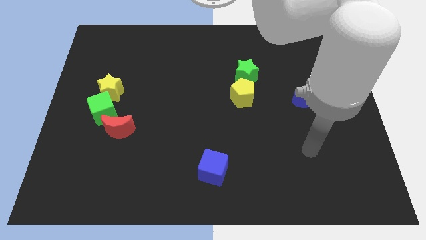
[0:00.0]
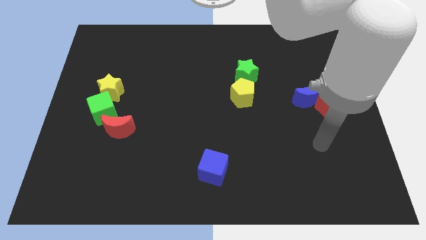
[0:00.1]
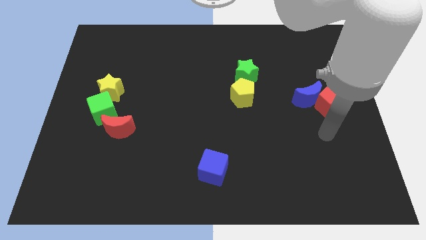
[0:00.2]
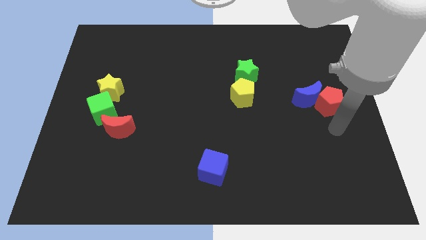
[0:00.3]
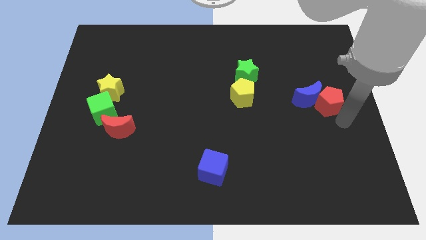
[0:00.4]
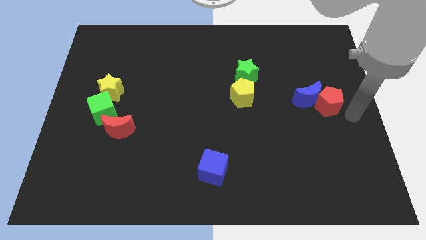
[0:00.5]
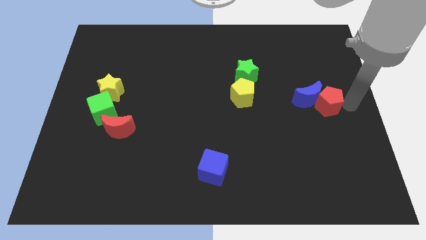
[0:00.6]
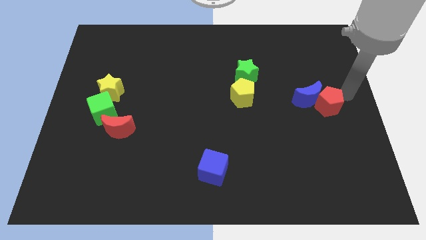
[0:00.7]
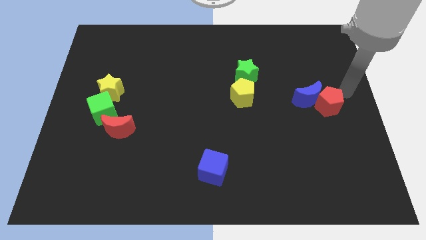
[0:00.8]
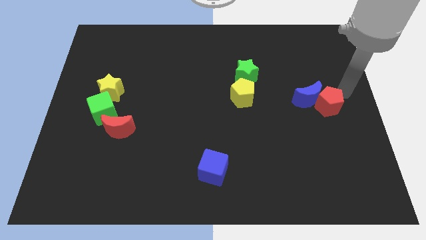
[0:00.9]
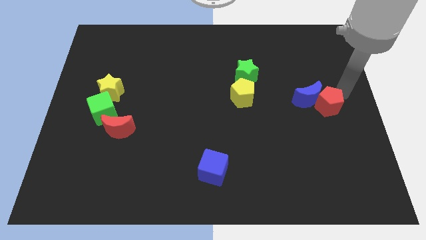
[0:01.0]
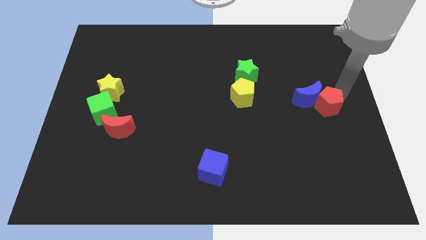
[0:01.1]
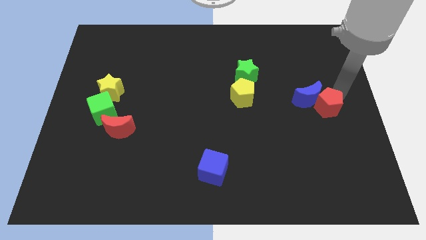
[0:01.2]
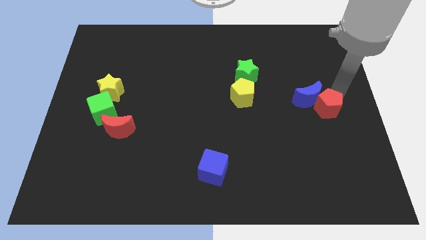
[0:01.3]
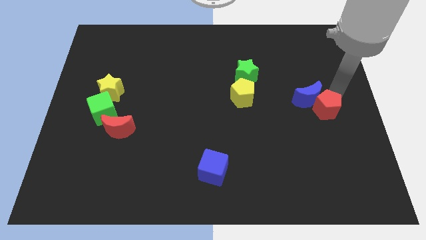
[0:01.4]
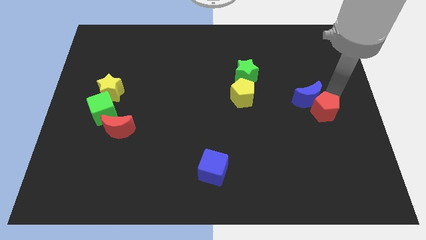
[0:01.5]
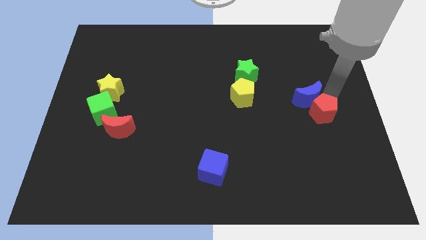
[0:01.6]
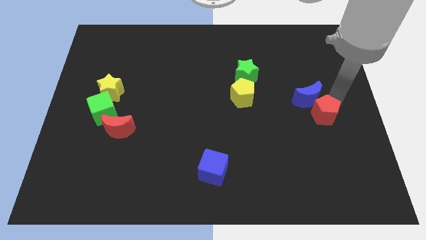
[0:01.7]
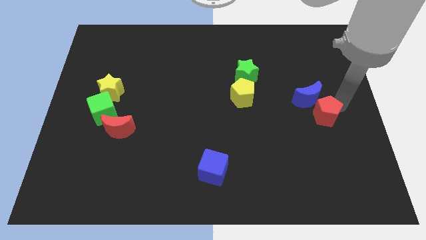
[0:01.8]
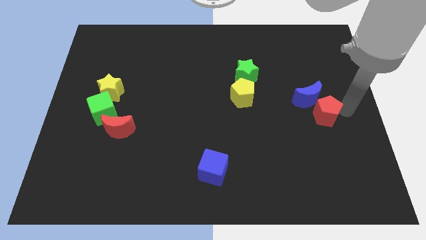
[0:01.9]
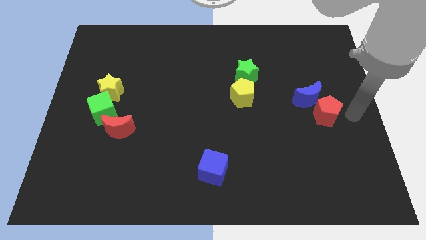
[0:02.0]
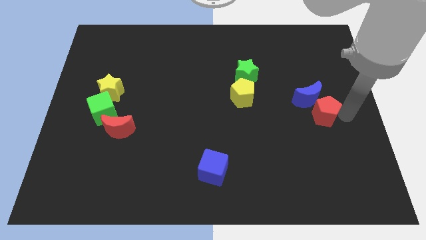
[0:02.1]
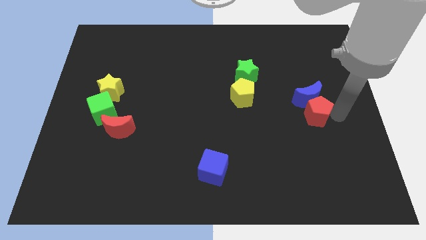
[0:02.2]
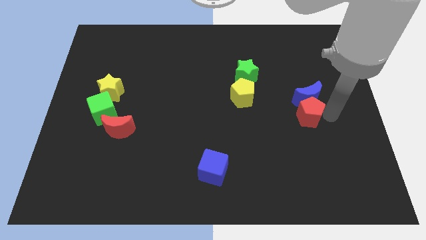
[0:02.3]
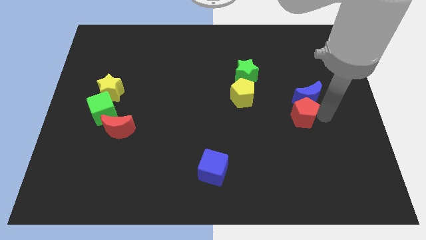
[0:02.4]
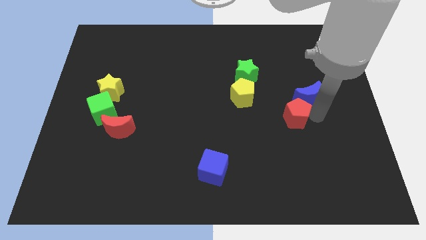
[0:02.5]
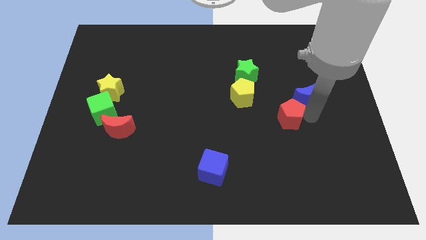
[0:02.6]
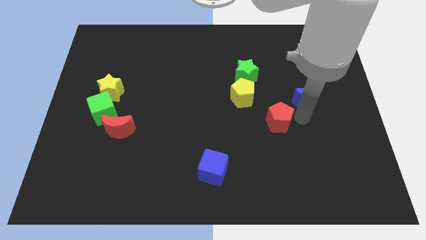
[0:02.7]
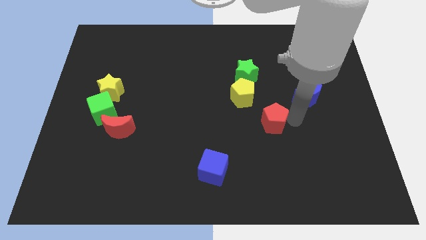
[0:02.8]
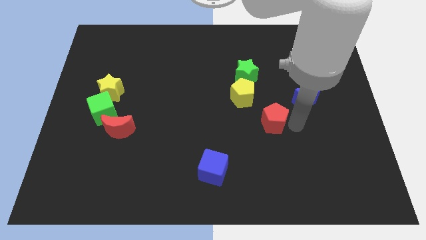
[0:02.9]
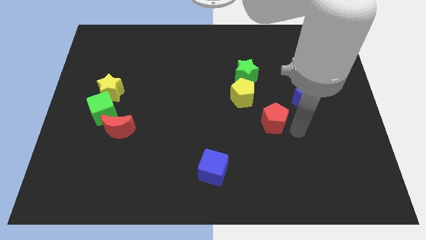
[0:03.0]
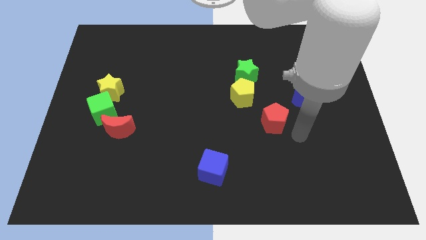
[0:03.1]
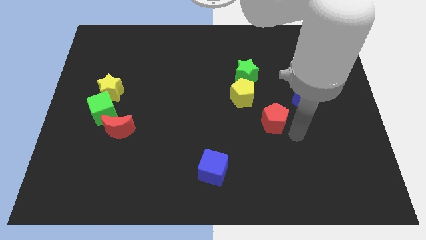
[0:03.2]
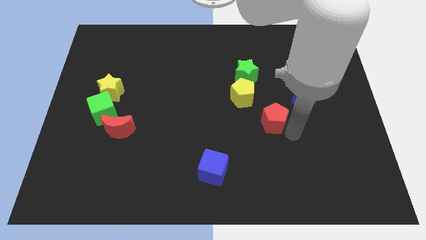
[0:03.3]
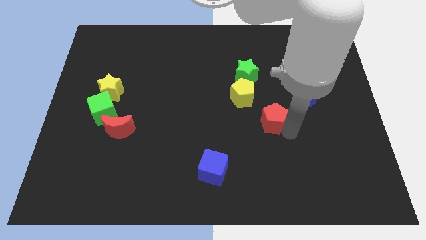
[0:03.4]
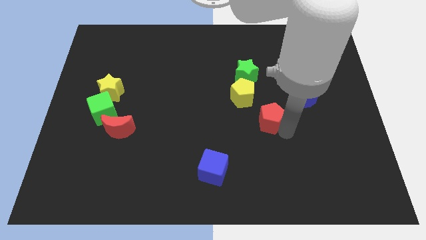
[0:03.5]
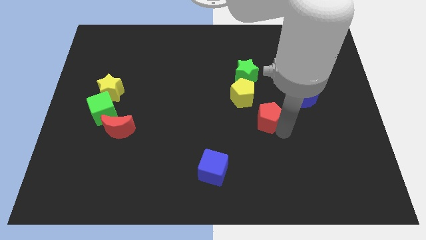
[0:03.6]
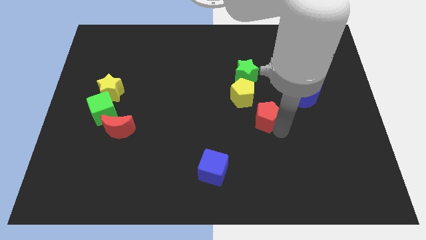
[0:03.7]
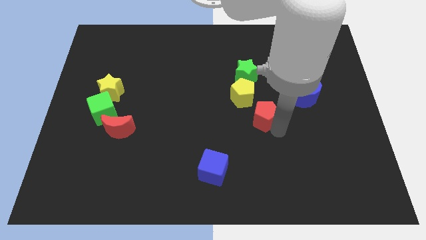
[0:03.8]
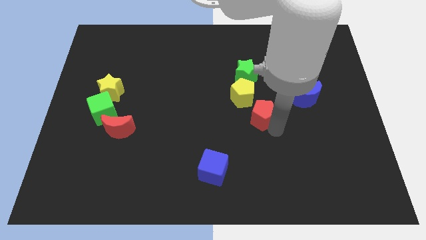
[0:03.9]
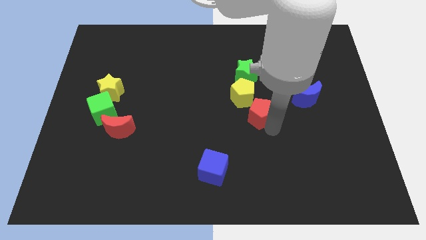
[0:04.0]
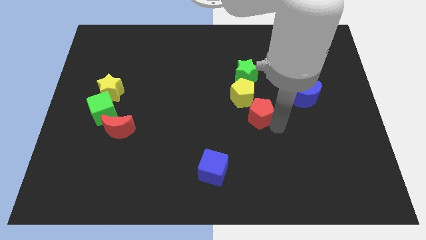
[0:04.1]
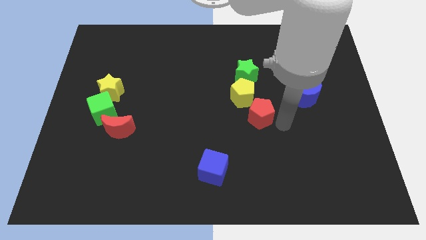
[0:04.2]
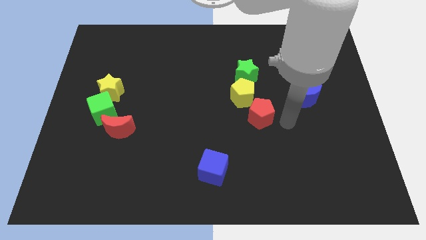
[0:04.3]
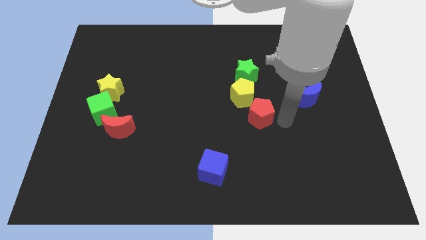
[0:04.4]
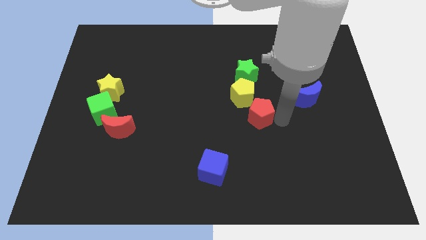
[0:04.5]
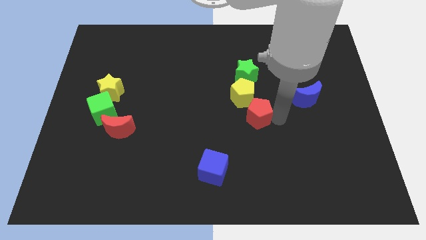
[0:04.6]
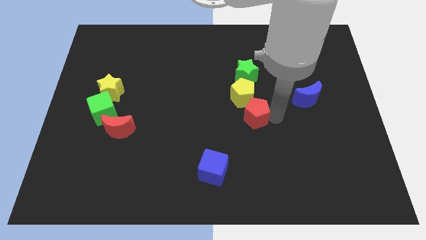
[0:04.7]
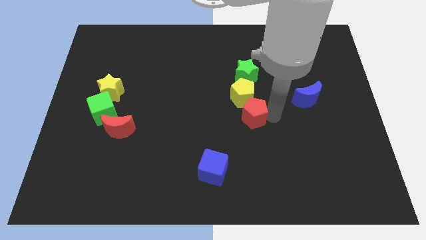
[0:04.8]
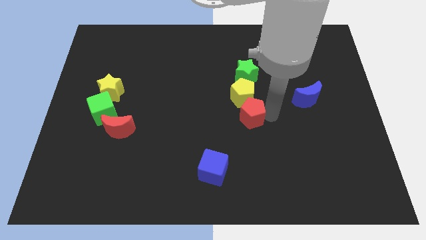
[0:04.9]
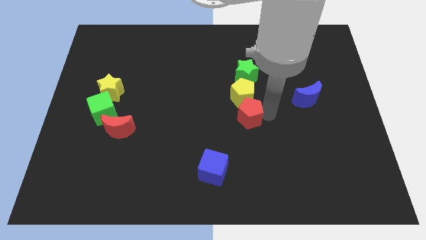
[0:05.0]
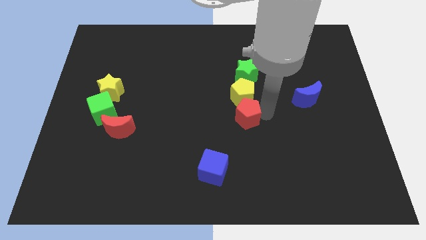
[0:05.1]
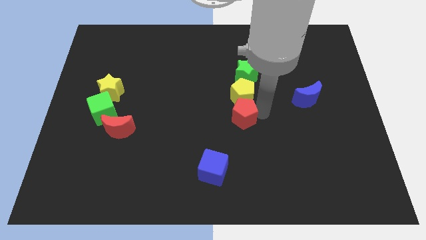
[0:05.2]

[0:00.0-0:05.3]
move the red pentagon to the left

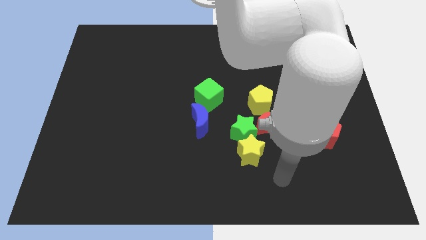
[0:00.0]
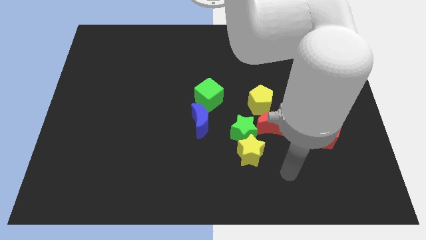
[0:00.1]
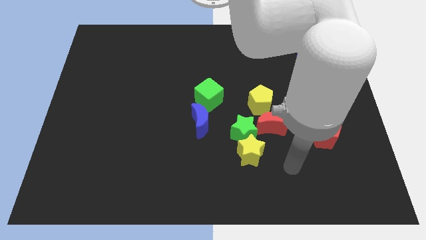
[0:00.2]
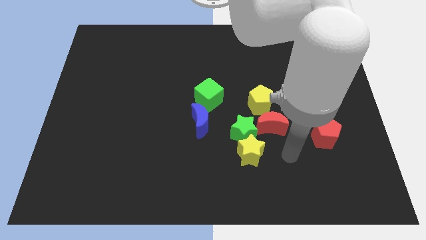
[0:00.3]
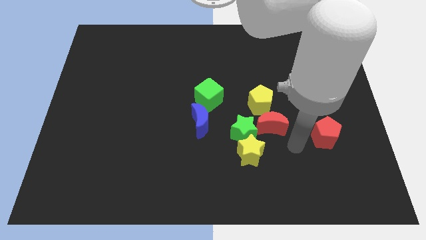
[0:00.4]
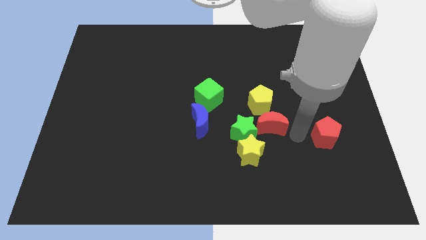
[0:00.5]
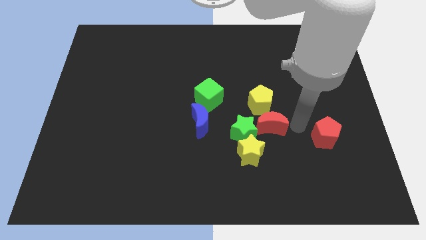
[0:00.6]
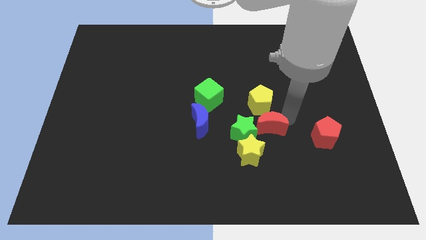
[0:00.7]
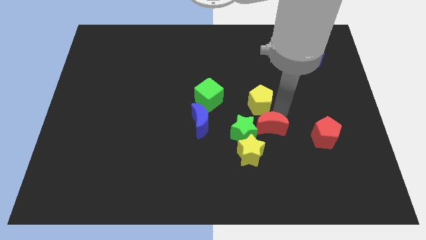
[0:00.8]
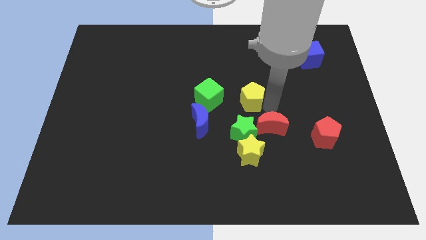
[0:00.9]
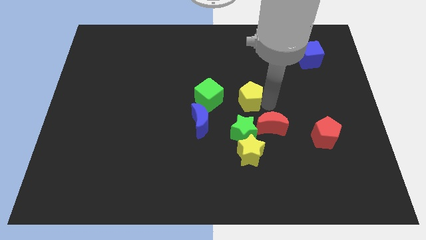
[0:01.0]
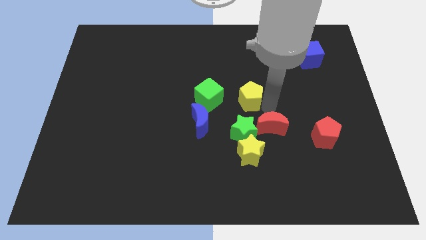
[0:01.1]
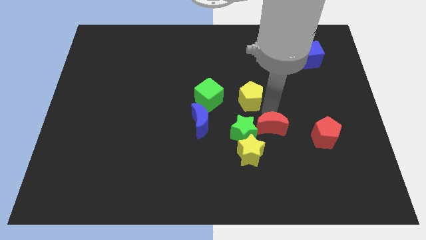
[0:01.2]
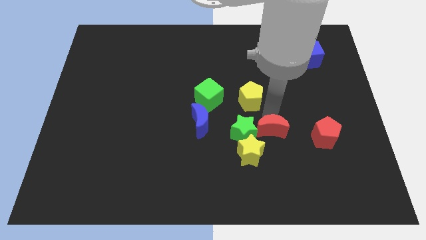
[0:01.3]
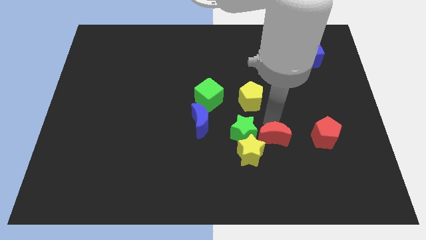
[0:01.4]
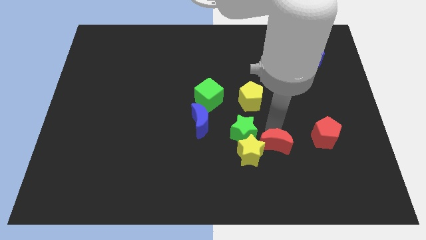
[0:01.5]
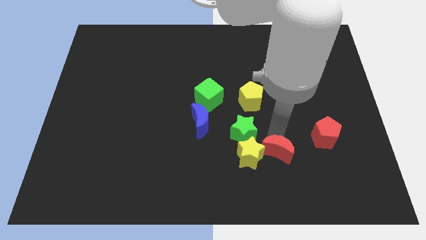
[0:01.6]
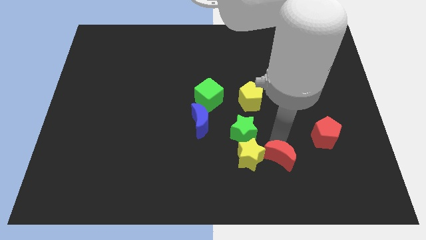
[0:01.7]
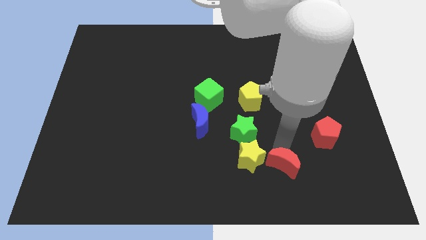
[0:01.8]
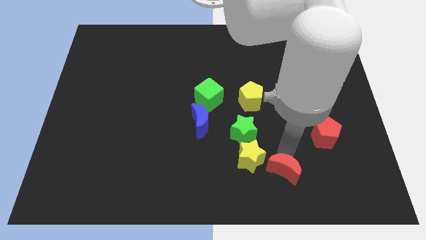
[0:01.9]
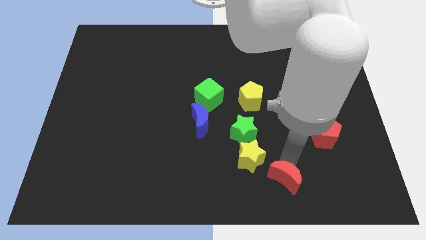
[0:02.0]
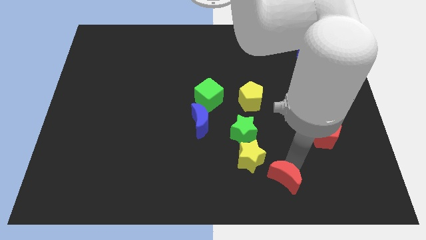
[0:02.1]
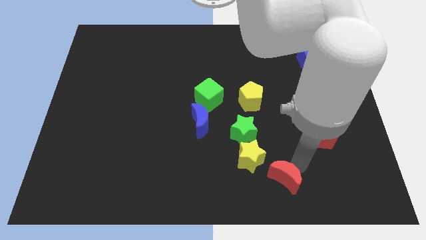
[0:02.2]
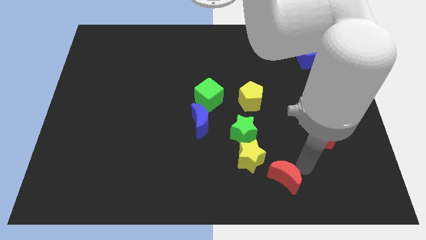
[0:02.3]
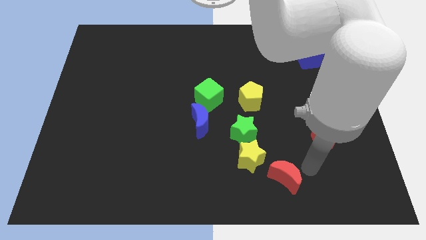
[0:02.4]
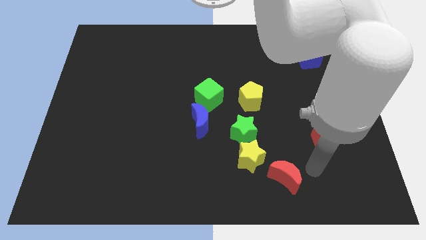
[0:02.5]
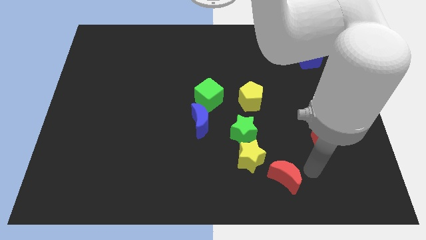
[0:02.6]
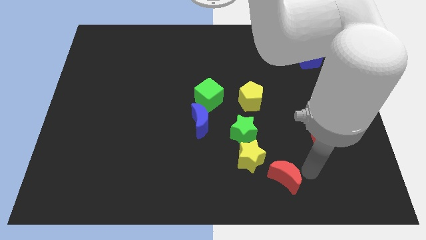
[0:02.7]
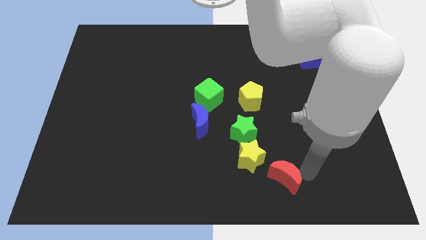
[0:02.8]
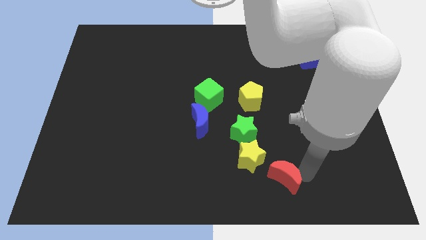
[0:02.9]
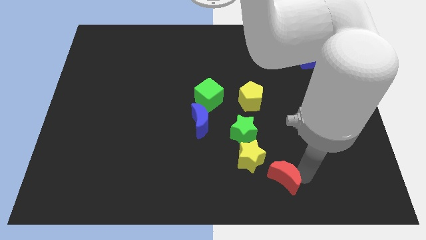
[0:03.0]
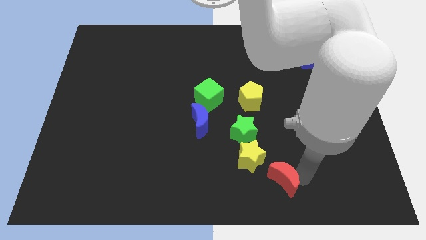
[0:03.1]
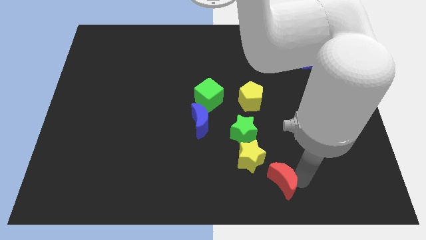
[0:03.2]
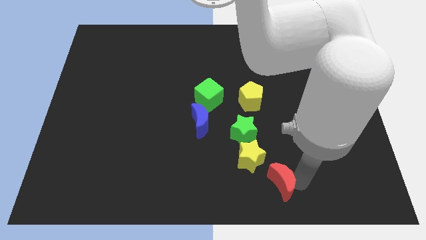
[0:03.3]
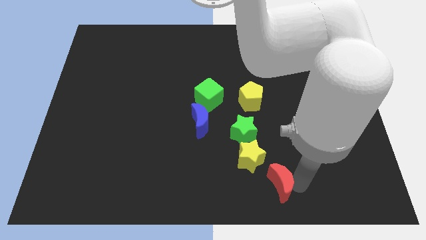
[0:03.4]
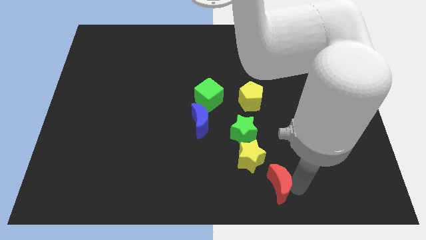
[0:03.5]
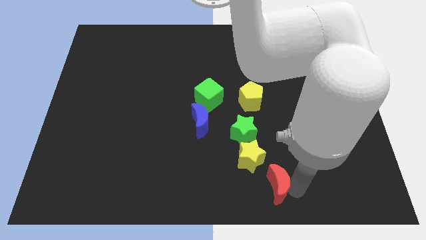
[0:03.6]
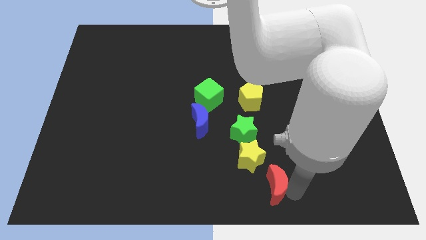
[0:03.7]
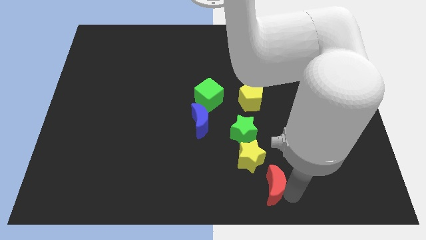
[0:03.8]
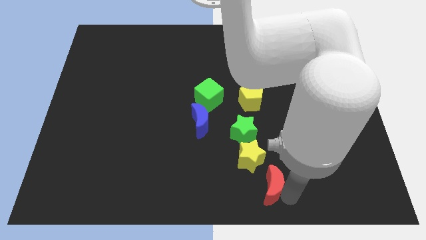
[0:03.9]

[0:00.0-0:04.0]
slightly push the red moon down and left
